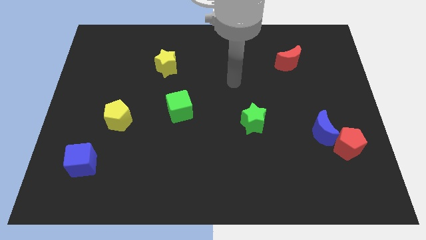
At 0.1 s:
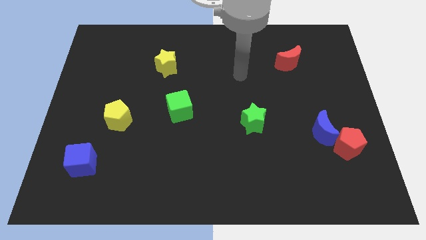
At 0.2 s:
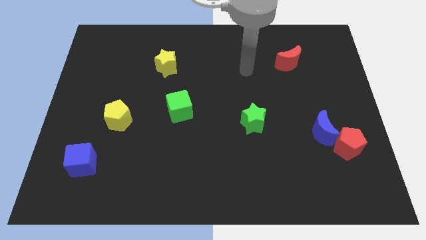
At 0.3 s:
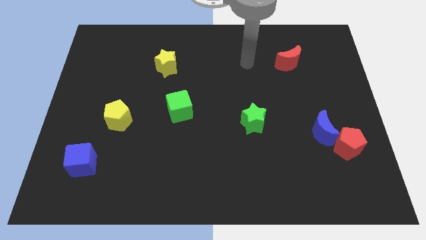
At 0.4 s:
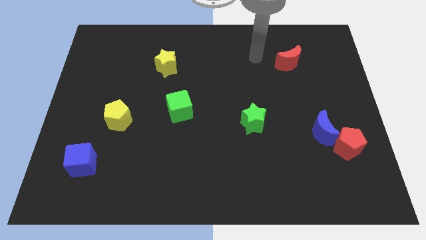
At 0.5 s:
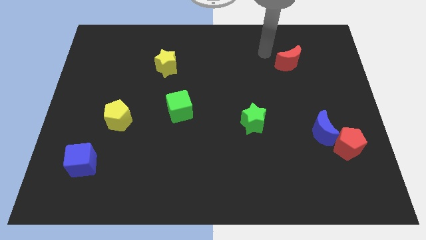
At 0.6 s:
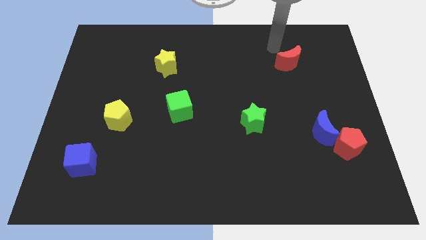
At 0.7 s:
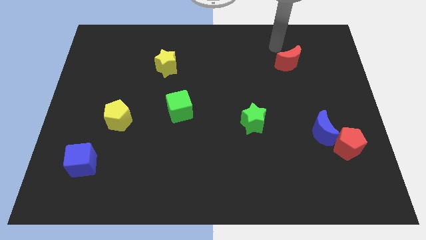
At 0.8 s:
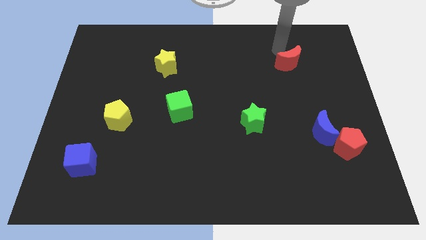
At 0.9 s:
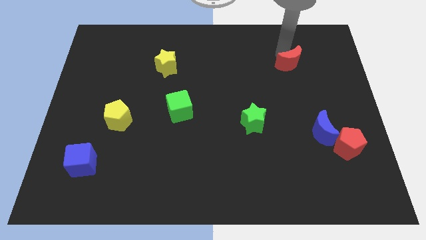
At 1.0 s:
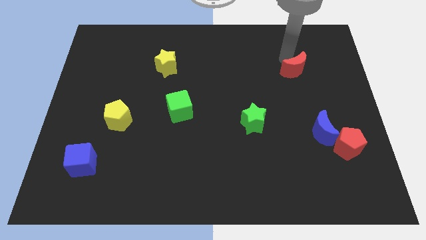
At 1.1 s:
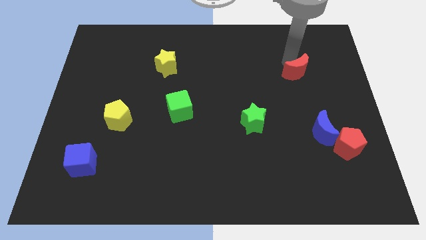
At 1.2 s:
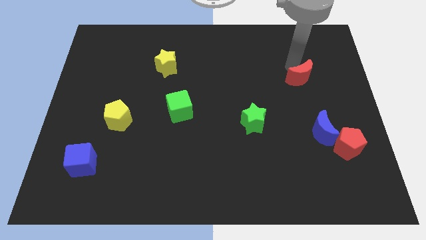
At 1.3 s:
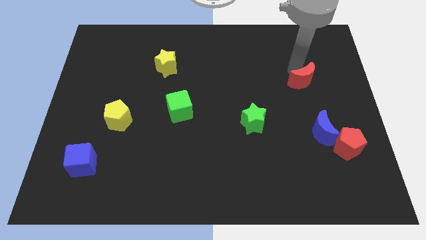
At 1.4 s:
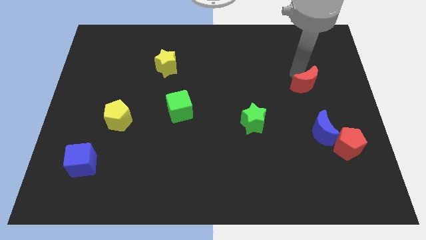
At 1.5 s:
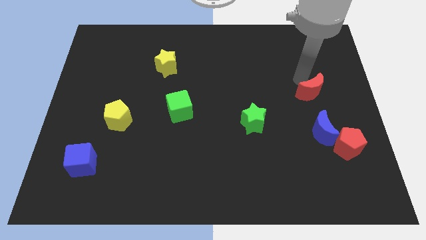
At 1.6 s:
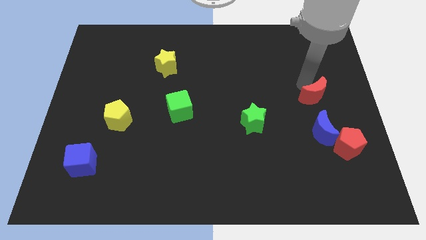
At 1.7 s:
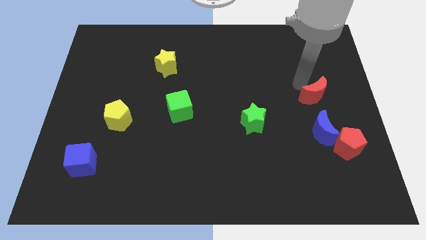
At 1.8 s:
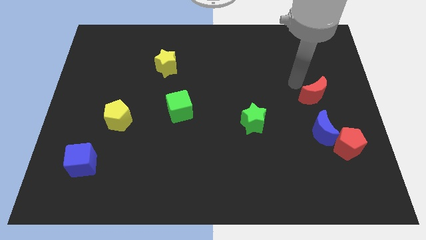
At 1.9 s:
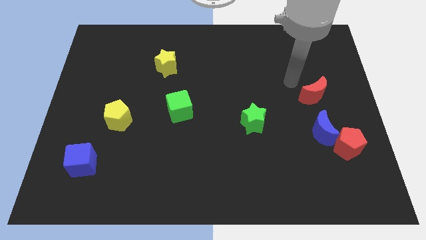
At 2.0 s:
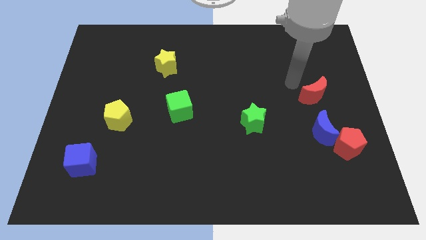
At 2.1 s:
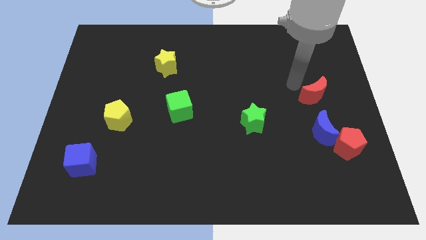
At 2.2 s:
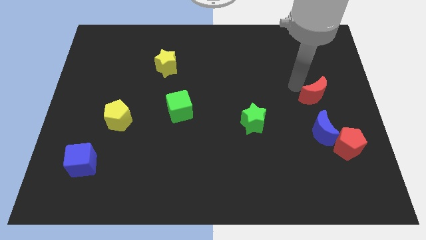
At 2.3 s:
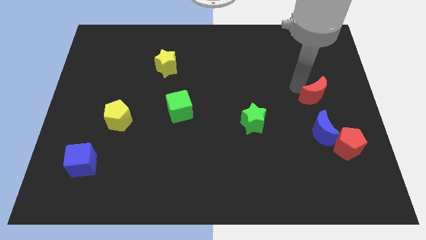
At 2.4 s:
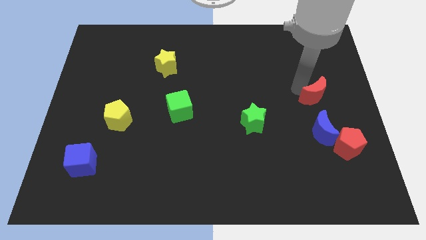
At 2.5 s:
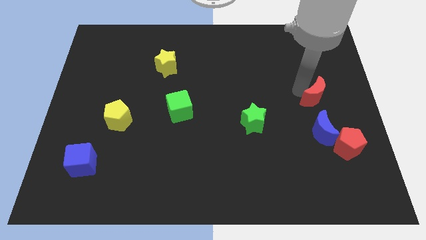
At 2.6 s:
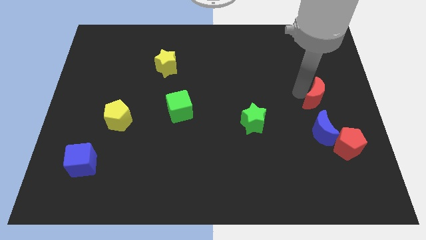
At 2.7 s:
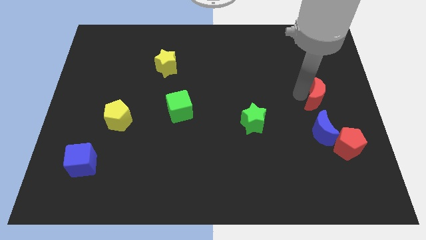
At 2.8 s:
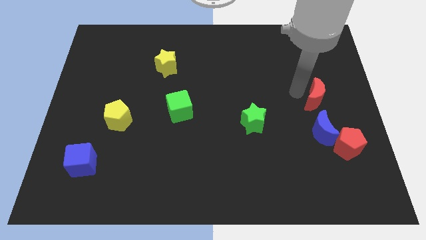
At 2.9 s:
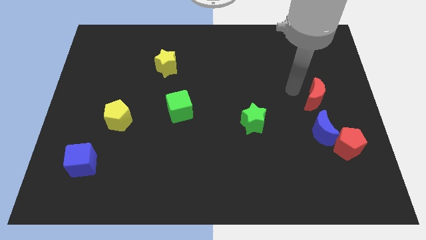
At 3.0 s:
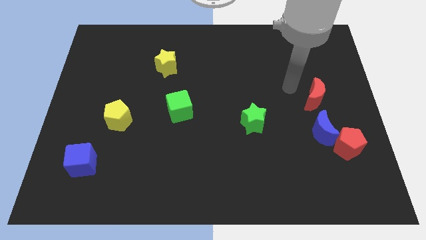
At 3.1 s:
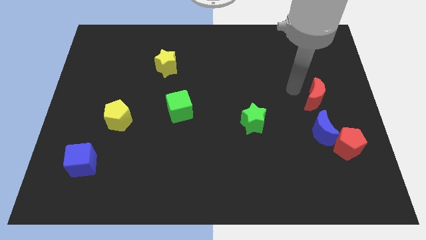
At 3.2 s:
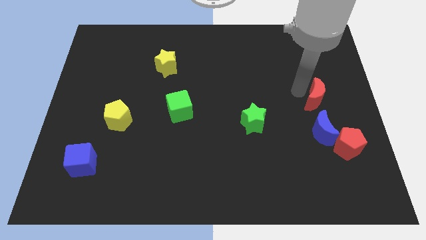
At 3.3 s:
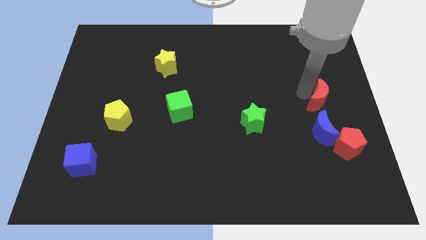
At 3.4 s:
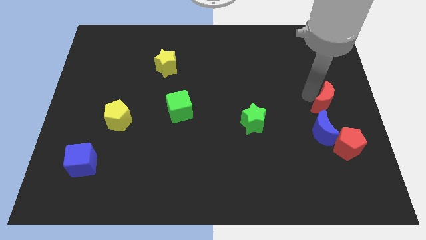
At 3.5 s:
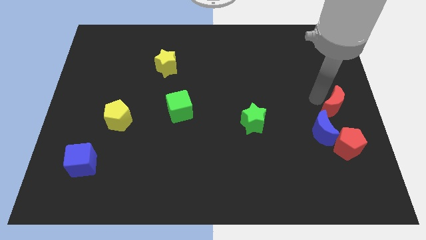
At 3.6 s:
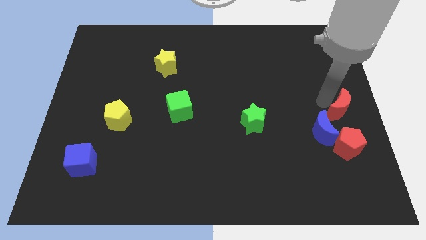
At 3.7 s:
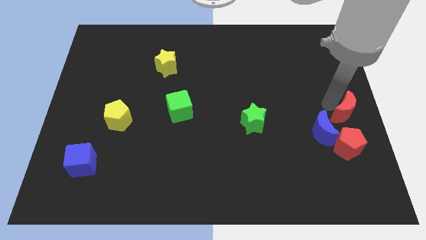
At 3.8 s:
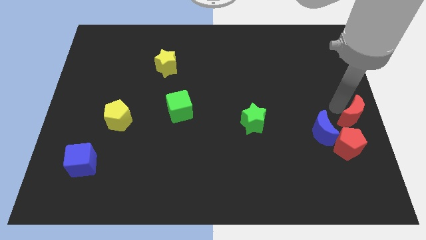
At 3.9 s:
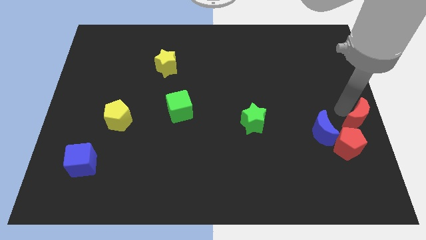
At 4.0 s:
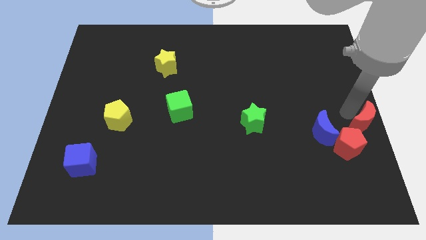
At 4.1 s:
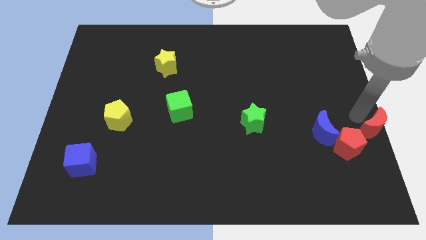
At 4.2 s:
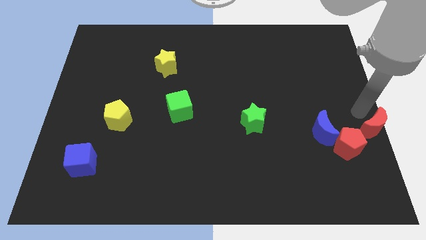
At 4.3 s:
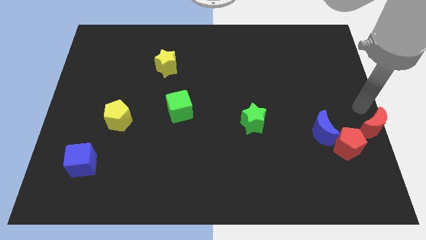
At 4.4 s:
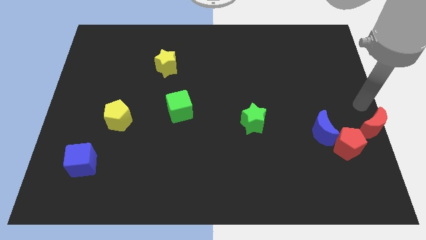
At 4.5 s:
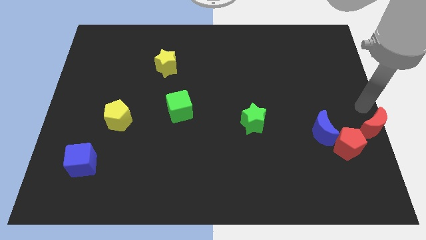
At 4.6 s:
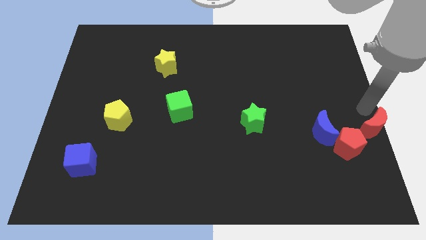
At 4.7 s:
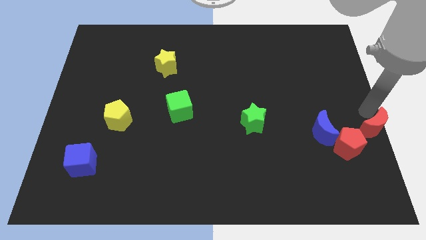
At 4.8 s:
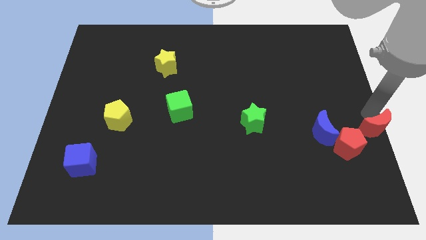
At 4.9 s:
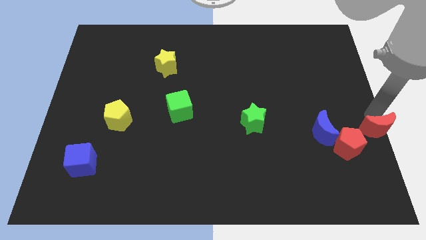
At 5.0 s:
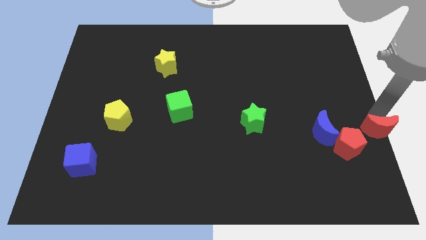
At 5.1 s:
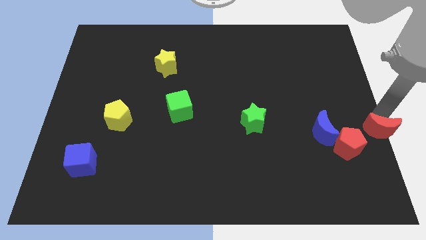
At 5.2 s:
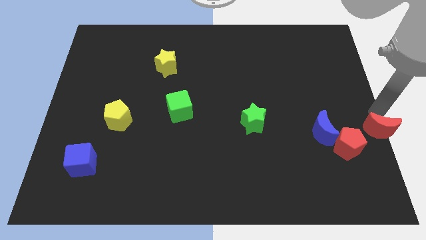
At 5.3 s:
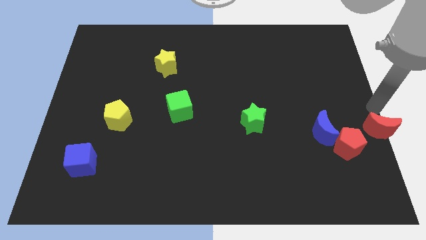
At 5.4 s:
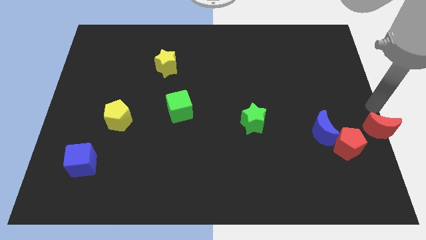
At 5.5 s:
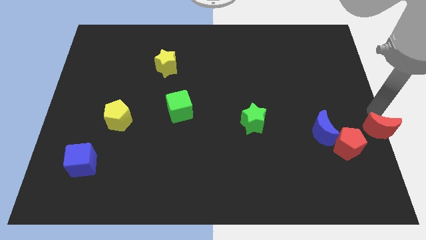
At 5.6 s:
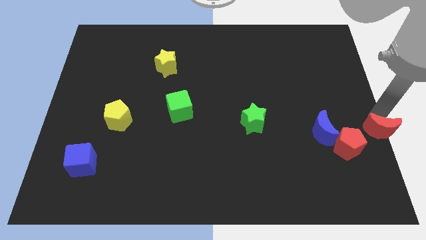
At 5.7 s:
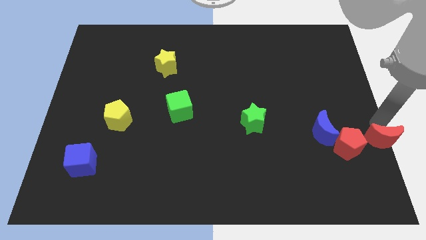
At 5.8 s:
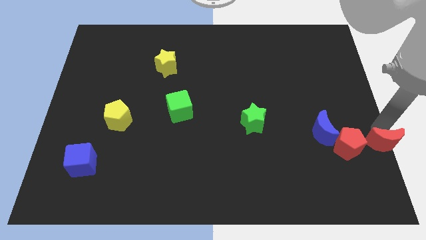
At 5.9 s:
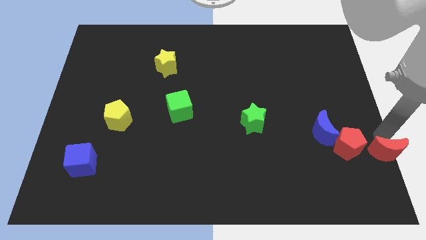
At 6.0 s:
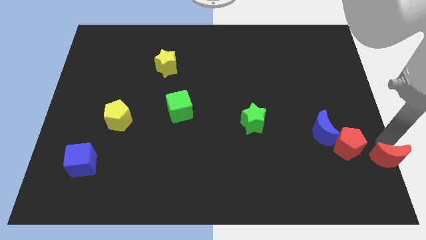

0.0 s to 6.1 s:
slide the red moon to the bottom right of the board

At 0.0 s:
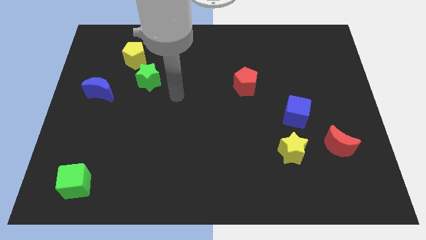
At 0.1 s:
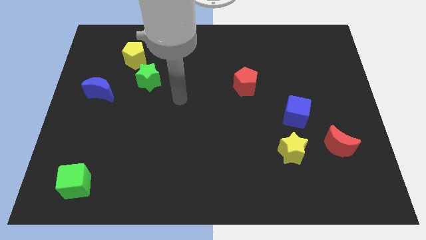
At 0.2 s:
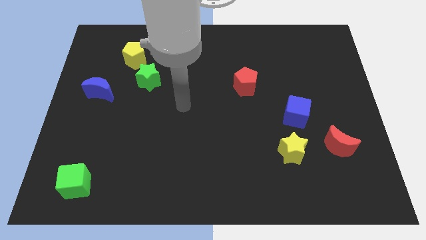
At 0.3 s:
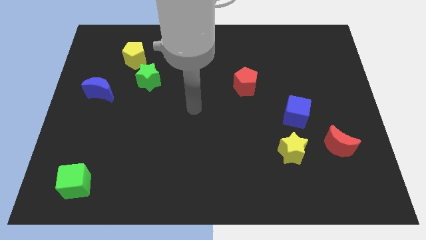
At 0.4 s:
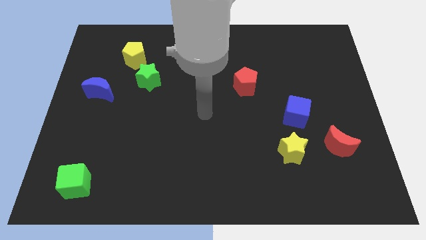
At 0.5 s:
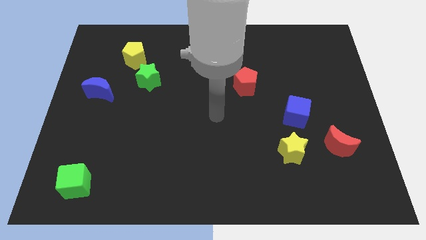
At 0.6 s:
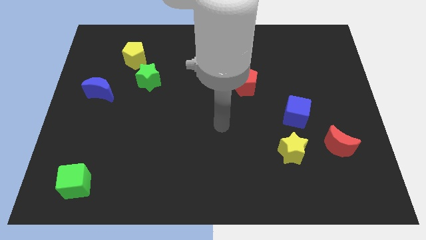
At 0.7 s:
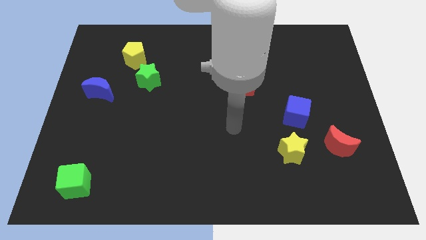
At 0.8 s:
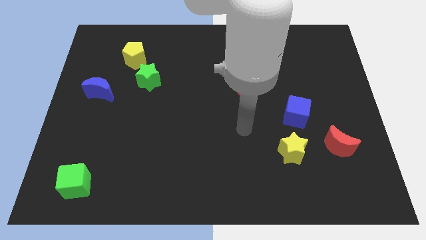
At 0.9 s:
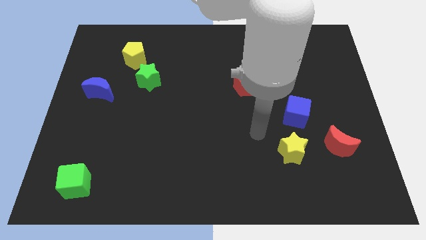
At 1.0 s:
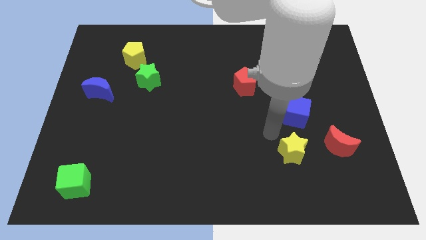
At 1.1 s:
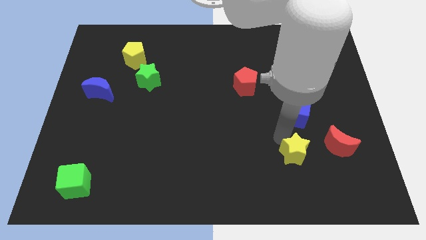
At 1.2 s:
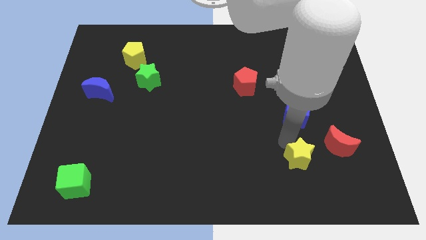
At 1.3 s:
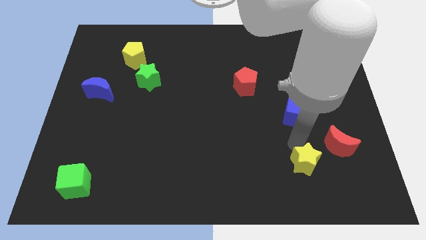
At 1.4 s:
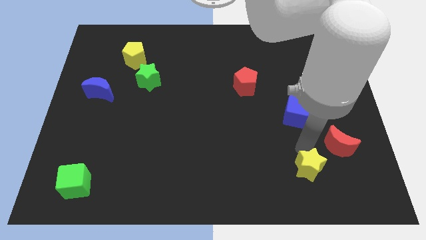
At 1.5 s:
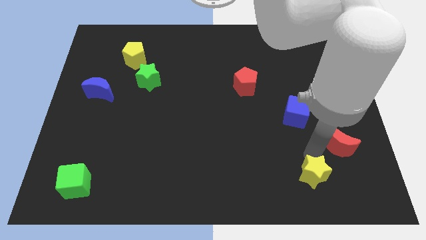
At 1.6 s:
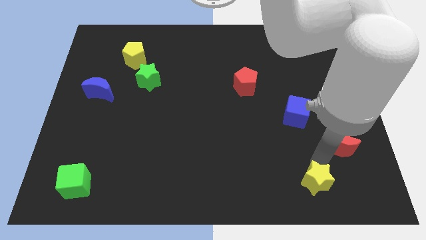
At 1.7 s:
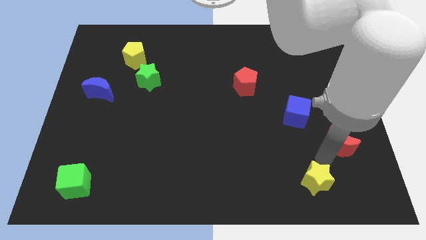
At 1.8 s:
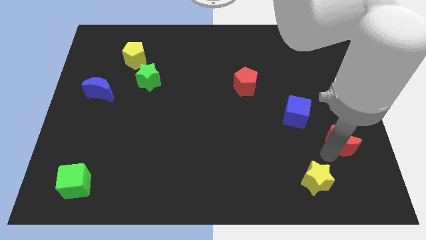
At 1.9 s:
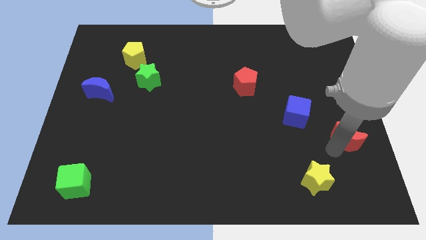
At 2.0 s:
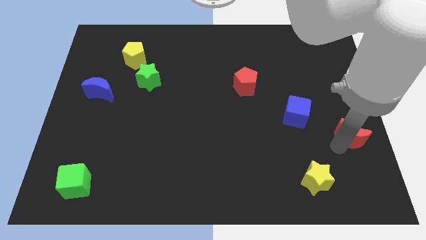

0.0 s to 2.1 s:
push the red moon to the center right
